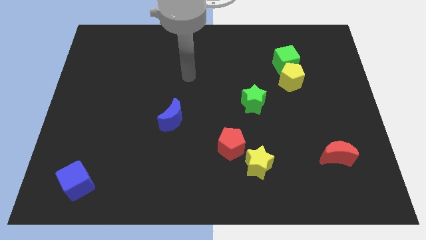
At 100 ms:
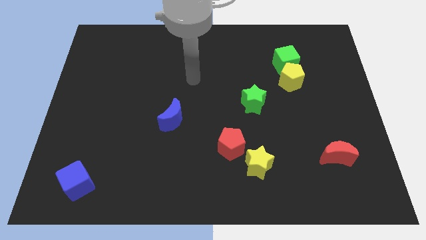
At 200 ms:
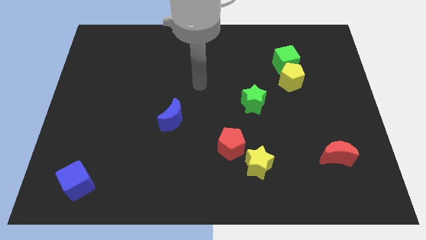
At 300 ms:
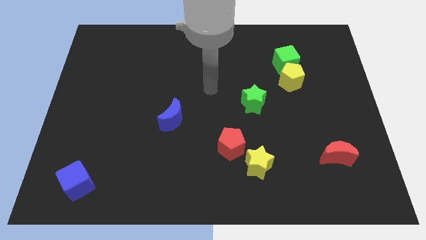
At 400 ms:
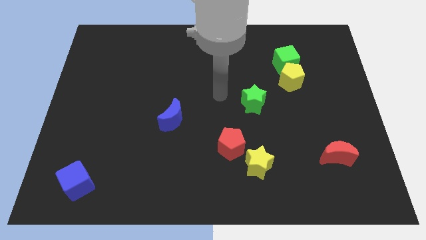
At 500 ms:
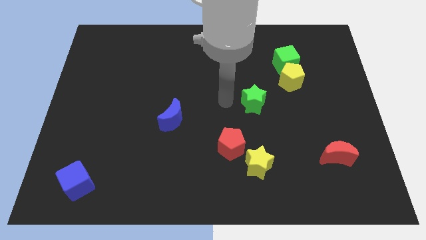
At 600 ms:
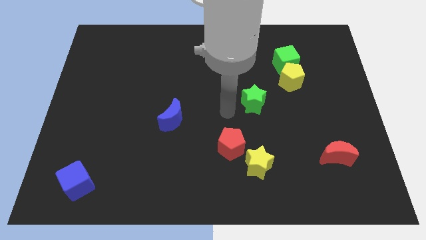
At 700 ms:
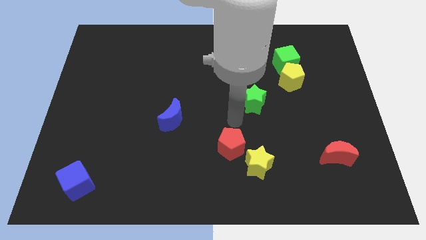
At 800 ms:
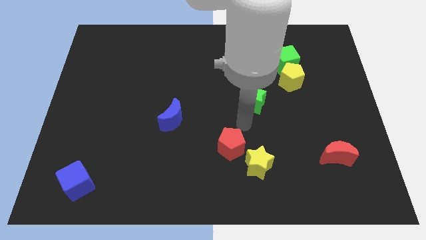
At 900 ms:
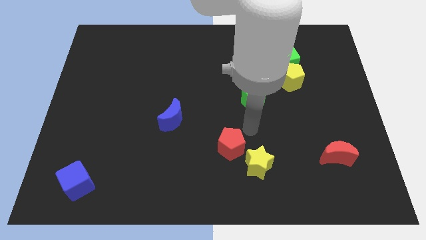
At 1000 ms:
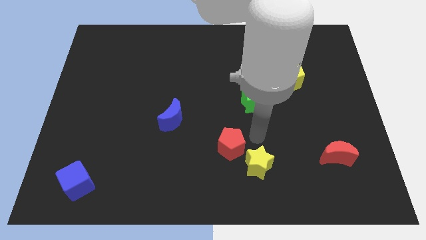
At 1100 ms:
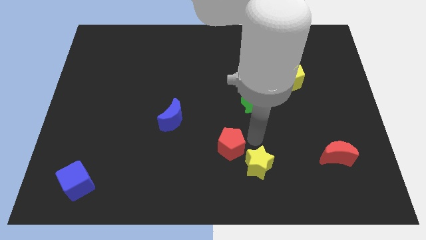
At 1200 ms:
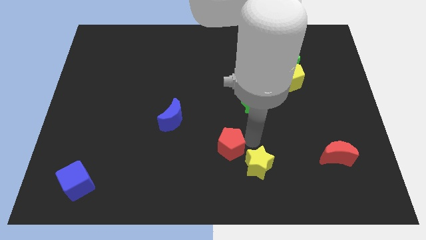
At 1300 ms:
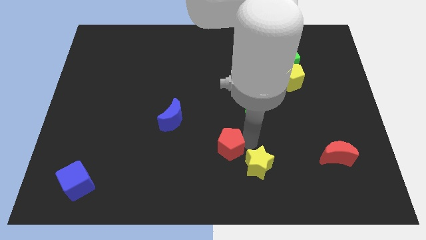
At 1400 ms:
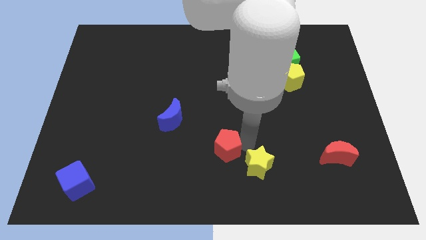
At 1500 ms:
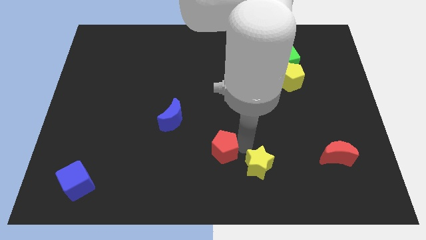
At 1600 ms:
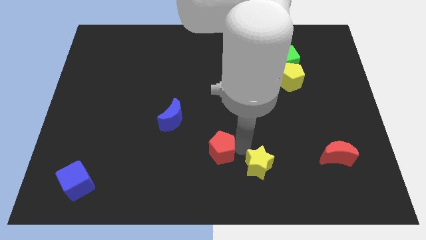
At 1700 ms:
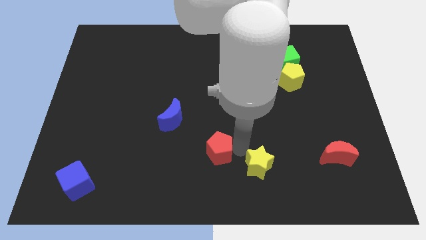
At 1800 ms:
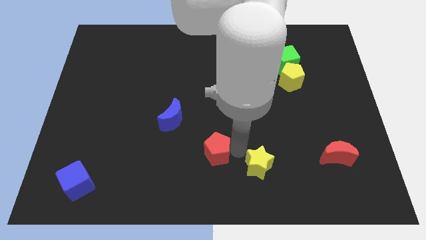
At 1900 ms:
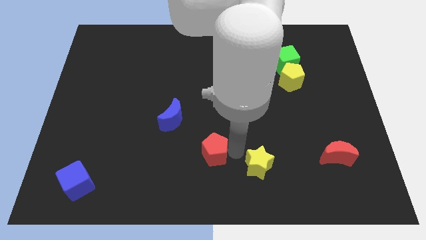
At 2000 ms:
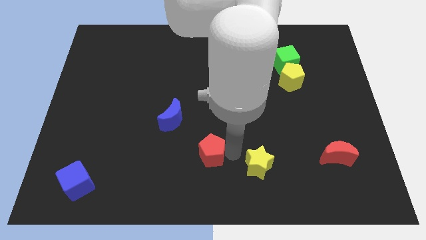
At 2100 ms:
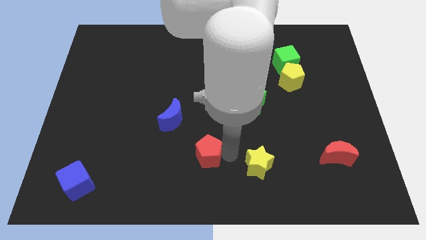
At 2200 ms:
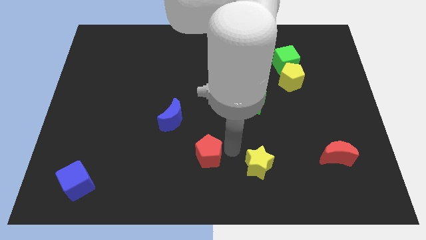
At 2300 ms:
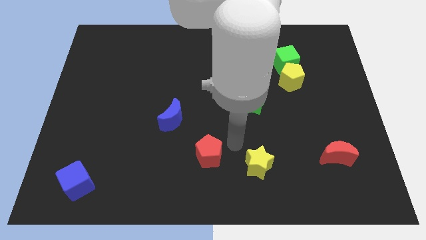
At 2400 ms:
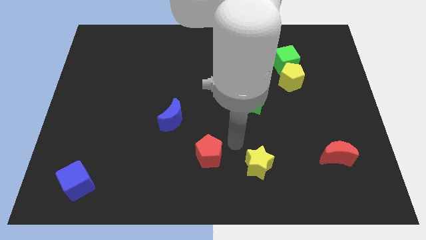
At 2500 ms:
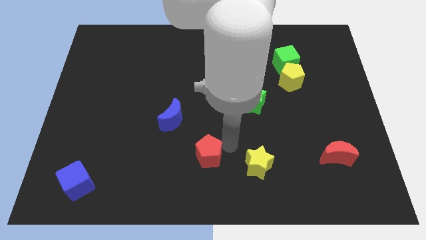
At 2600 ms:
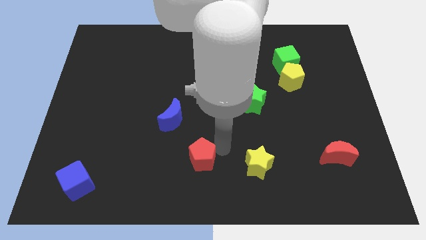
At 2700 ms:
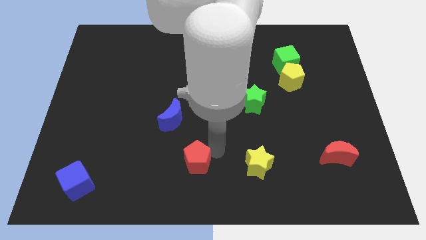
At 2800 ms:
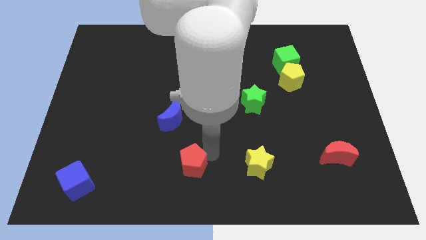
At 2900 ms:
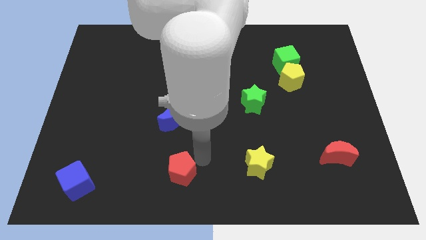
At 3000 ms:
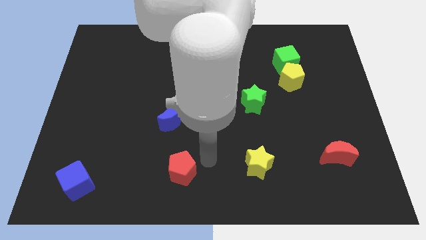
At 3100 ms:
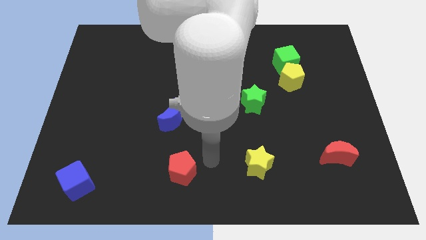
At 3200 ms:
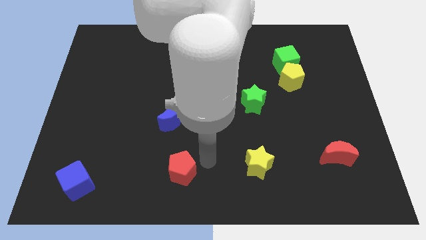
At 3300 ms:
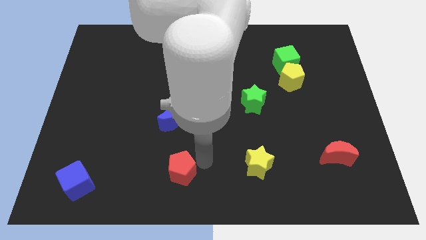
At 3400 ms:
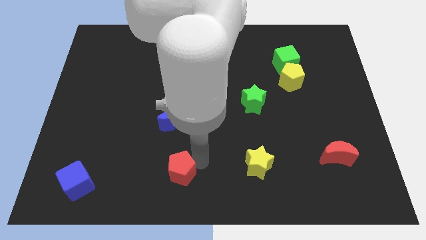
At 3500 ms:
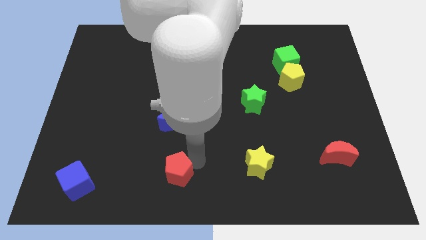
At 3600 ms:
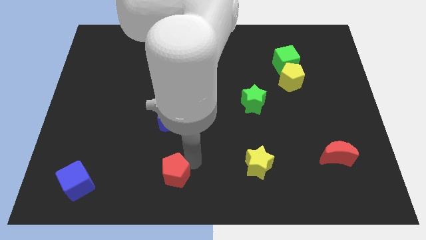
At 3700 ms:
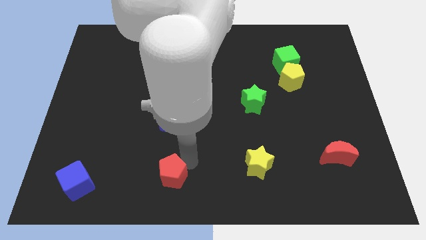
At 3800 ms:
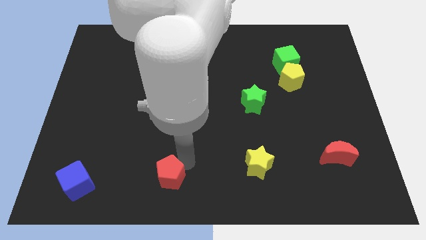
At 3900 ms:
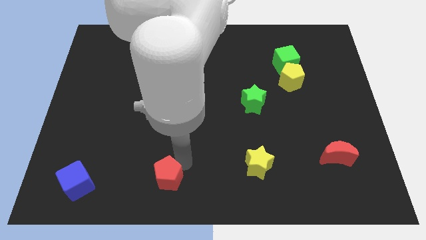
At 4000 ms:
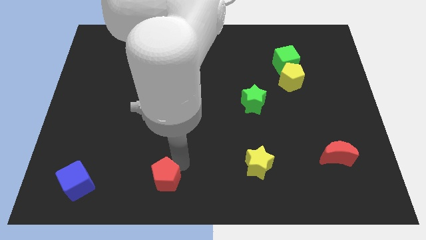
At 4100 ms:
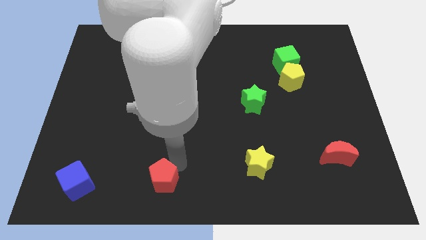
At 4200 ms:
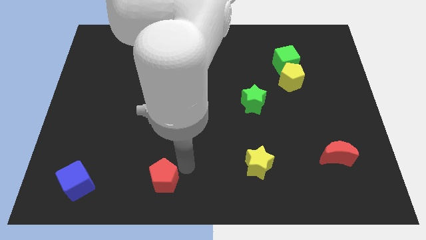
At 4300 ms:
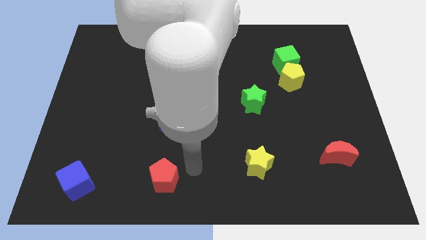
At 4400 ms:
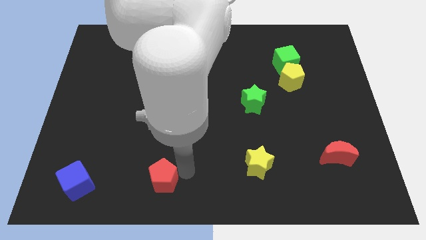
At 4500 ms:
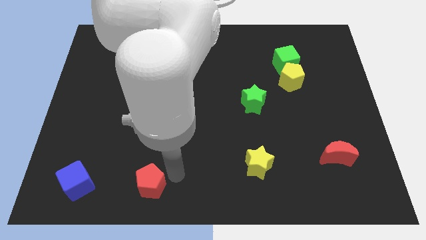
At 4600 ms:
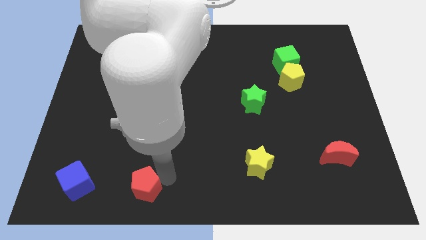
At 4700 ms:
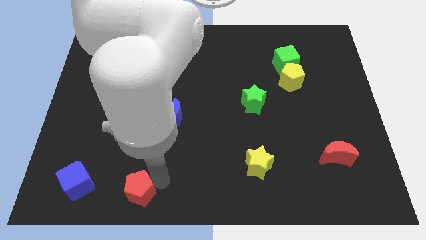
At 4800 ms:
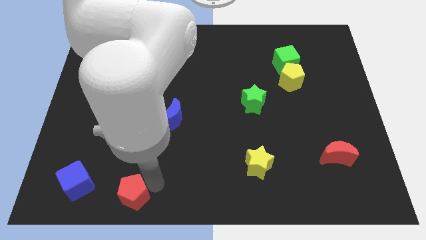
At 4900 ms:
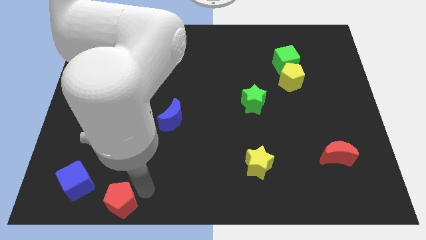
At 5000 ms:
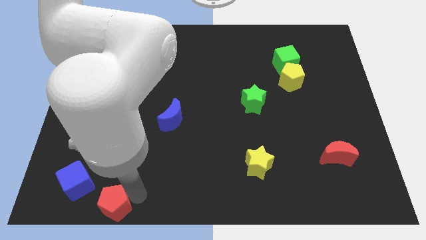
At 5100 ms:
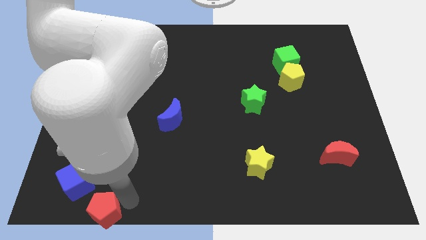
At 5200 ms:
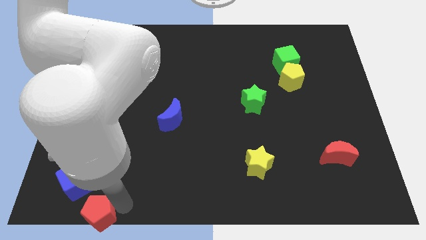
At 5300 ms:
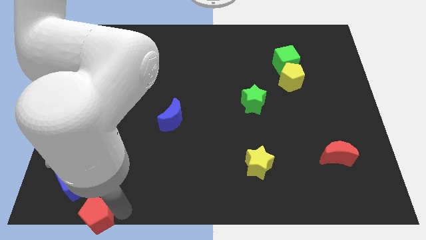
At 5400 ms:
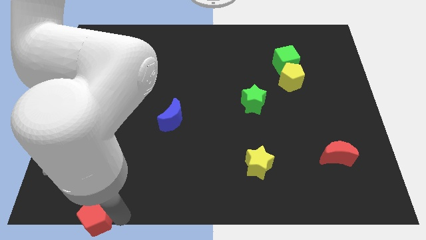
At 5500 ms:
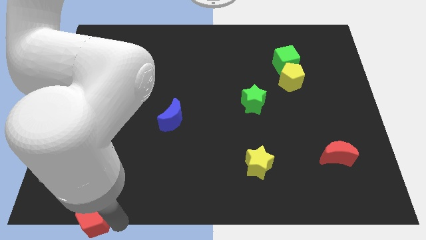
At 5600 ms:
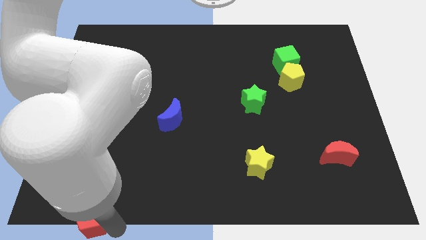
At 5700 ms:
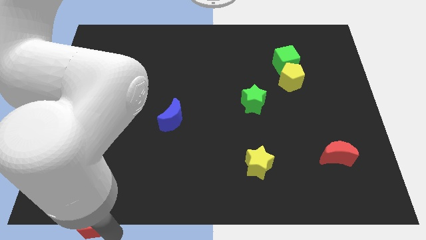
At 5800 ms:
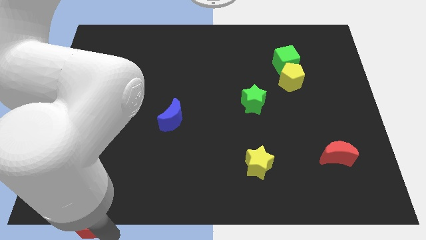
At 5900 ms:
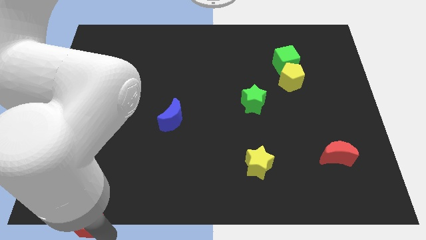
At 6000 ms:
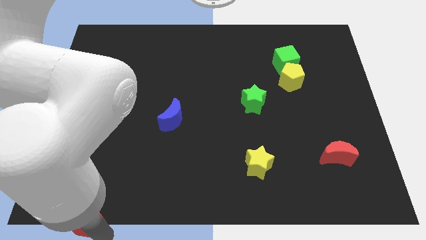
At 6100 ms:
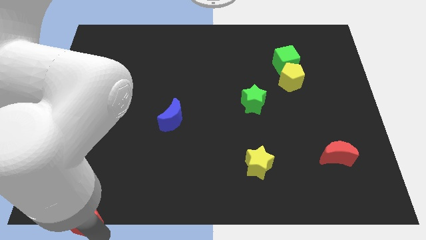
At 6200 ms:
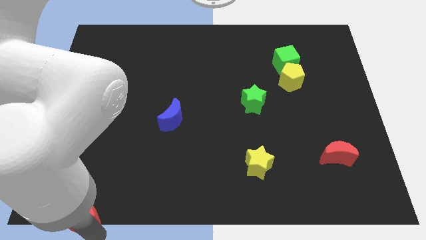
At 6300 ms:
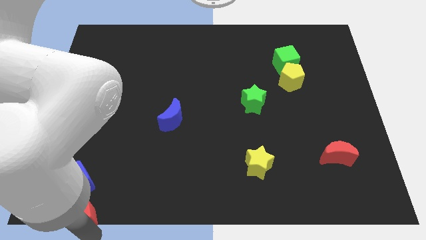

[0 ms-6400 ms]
move the red pentagon to the lower left corner

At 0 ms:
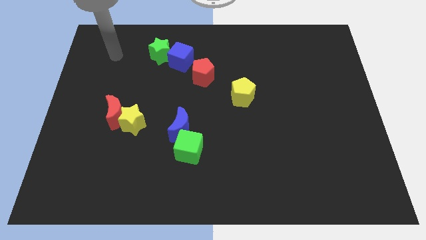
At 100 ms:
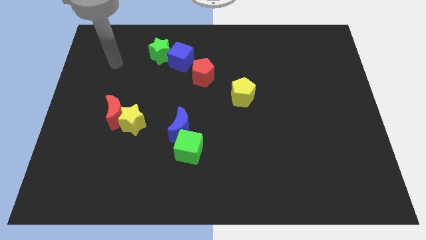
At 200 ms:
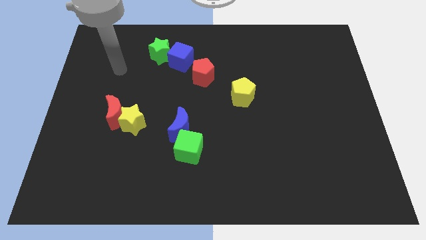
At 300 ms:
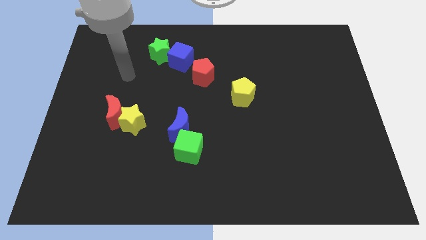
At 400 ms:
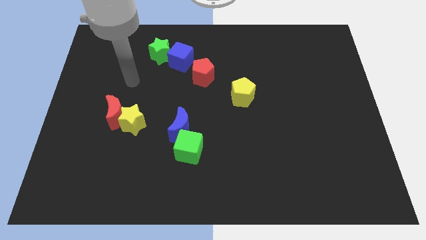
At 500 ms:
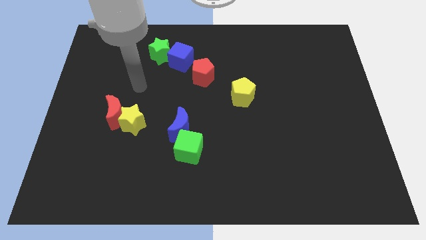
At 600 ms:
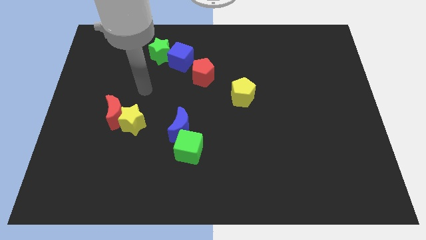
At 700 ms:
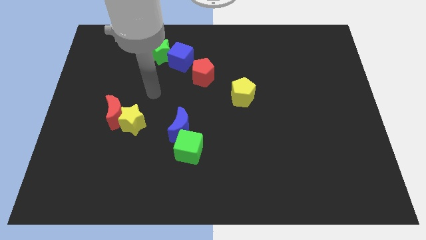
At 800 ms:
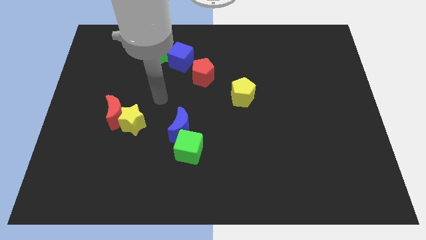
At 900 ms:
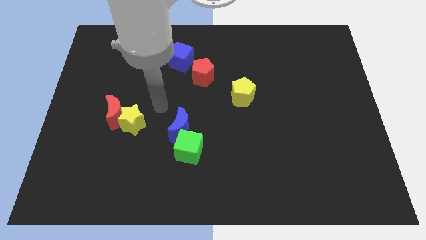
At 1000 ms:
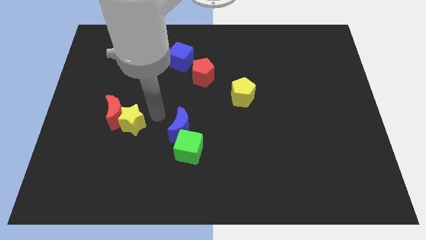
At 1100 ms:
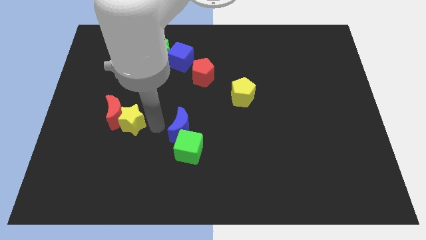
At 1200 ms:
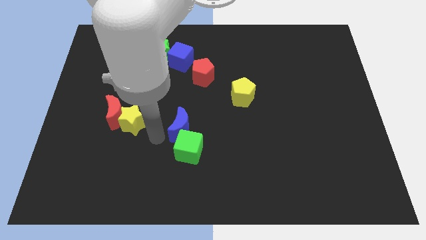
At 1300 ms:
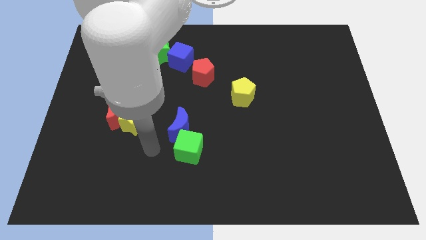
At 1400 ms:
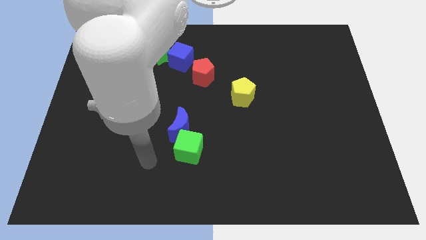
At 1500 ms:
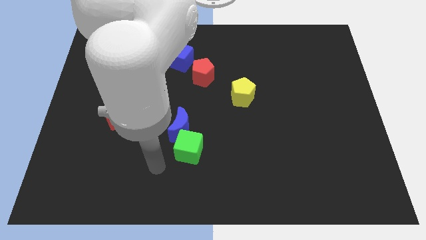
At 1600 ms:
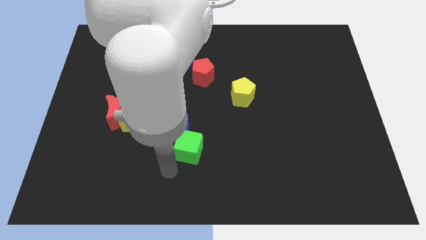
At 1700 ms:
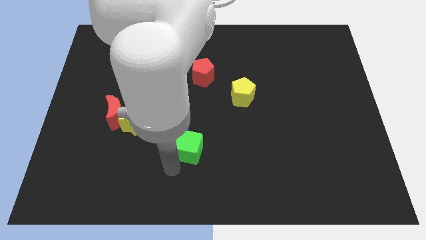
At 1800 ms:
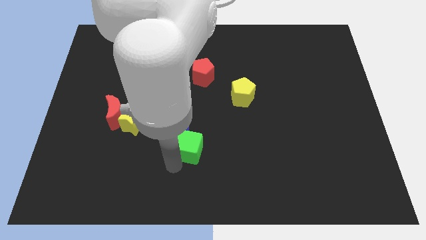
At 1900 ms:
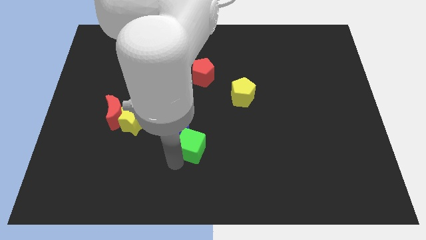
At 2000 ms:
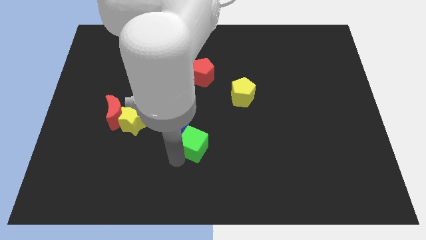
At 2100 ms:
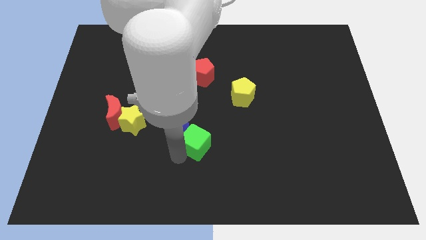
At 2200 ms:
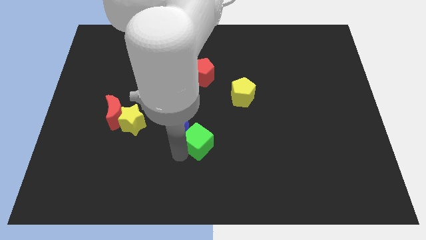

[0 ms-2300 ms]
slide the green cube to the center
